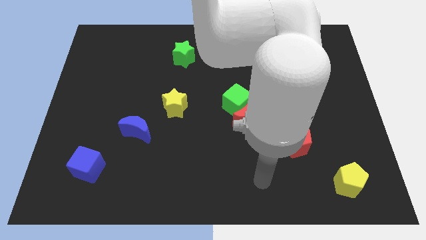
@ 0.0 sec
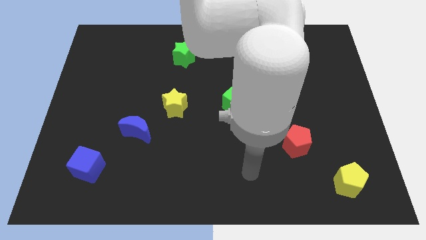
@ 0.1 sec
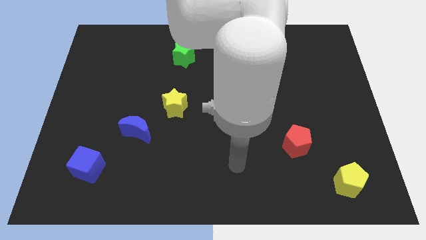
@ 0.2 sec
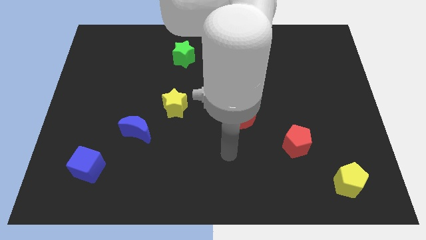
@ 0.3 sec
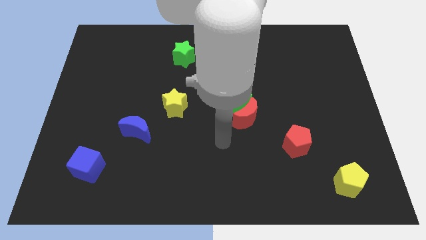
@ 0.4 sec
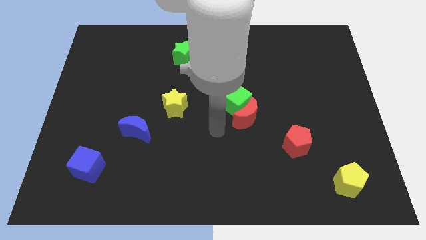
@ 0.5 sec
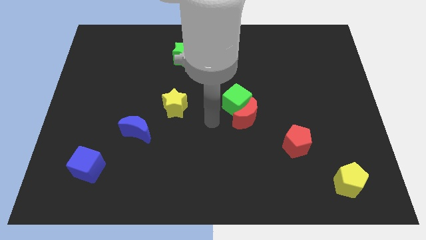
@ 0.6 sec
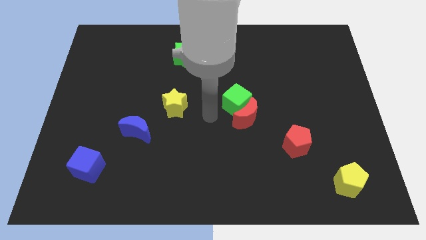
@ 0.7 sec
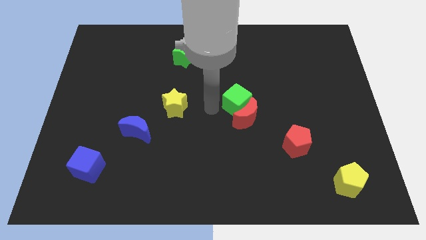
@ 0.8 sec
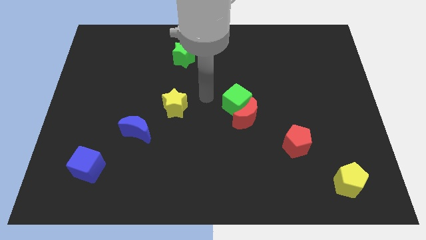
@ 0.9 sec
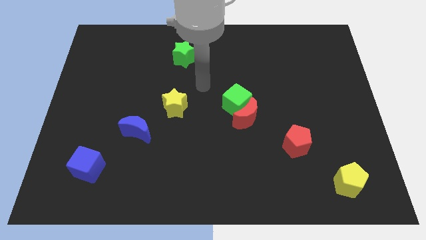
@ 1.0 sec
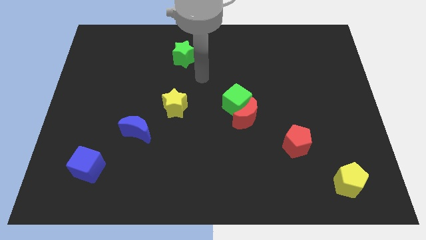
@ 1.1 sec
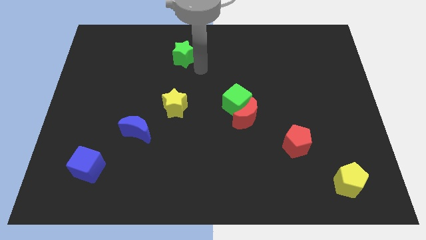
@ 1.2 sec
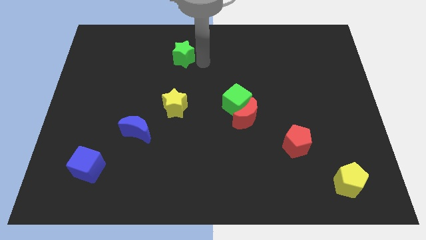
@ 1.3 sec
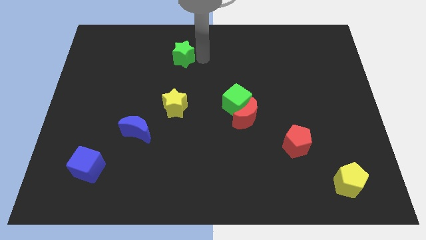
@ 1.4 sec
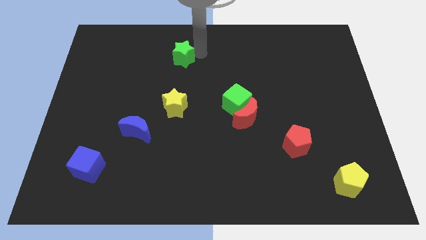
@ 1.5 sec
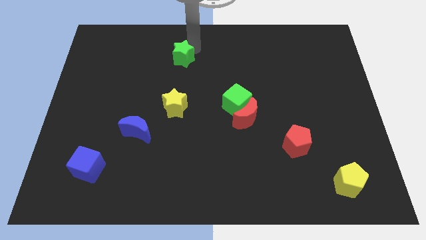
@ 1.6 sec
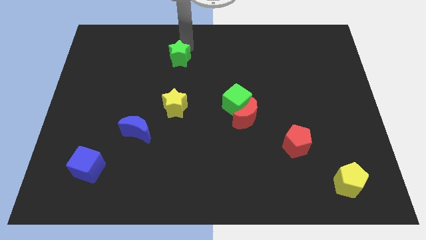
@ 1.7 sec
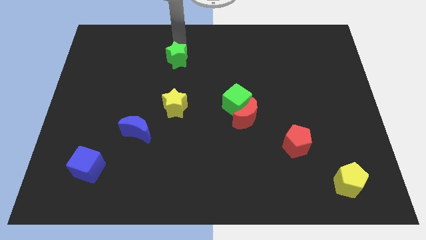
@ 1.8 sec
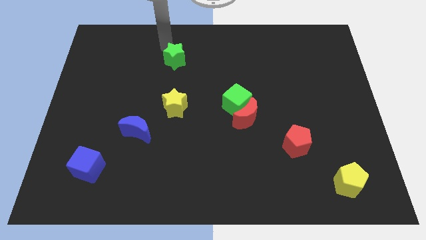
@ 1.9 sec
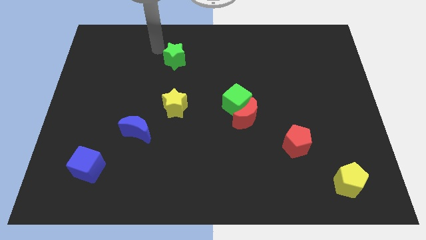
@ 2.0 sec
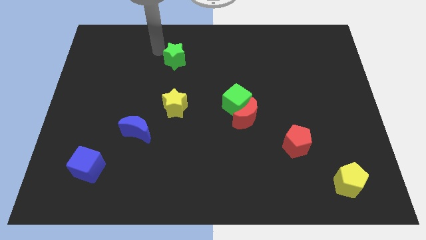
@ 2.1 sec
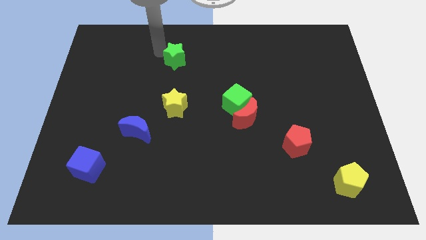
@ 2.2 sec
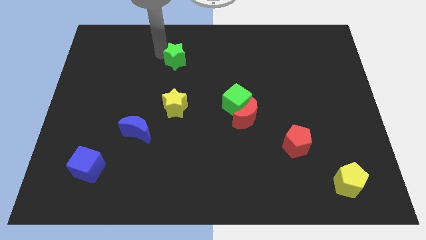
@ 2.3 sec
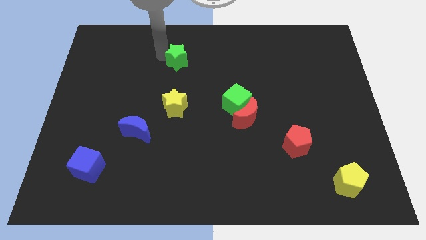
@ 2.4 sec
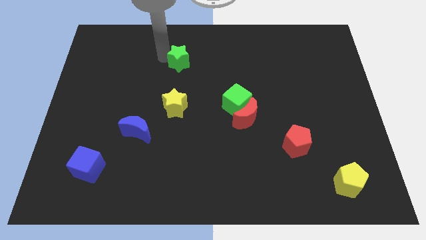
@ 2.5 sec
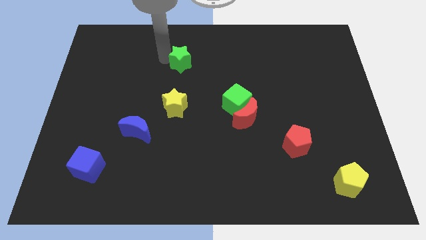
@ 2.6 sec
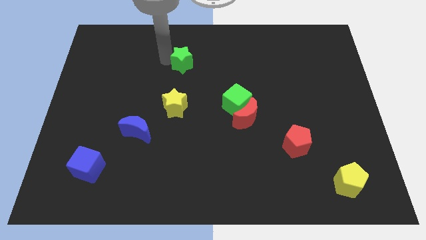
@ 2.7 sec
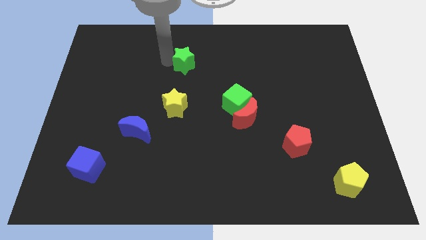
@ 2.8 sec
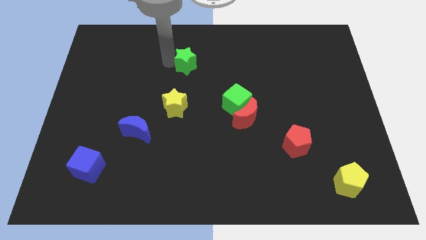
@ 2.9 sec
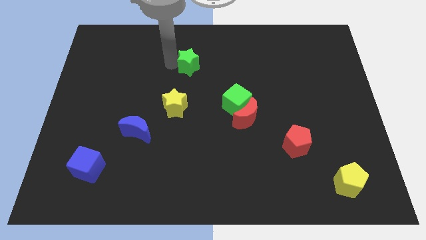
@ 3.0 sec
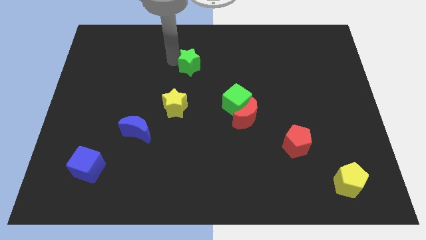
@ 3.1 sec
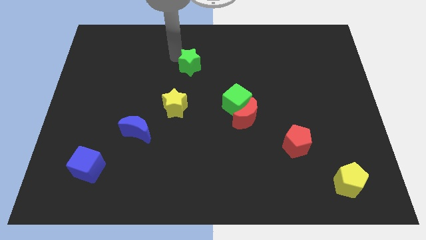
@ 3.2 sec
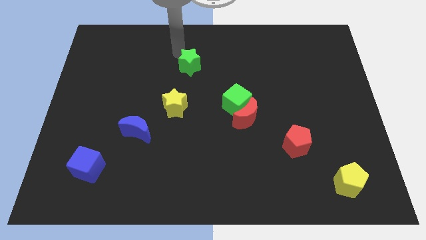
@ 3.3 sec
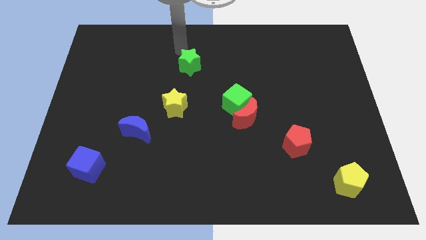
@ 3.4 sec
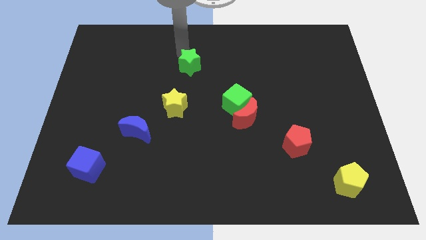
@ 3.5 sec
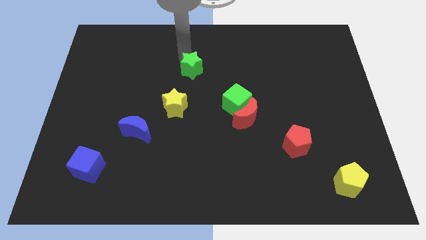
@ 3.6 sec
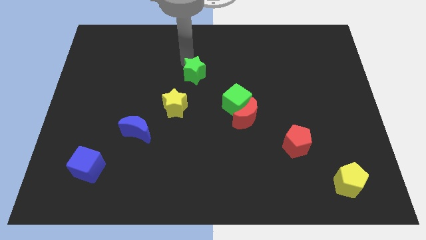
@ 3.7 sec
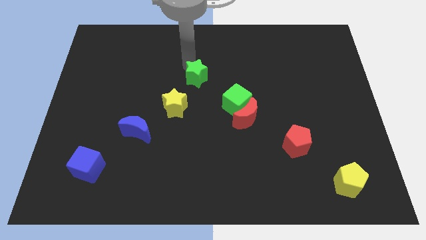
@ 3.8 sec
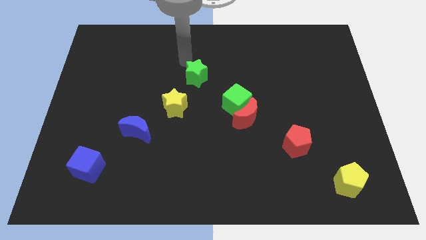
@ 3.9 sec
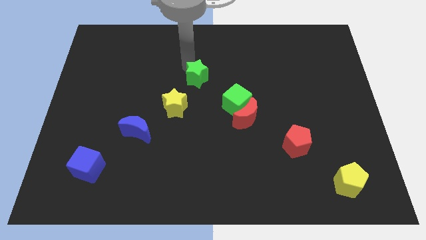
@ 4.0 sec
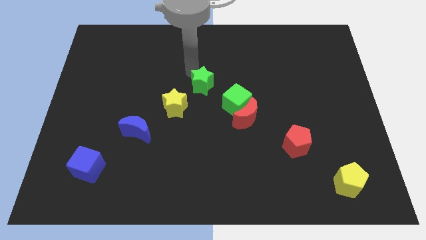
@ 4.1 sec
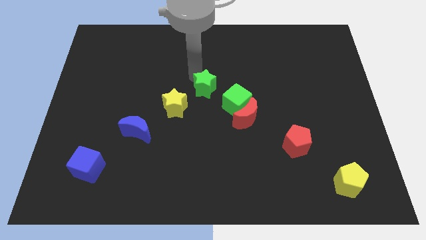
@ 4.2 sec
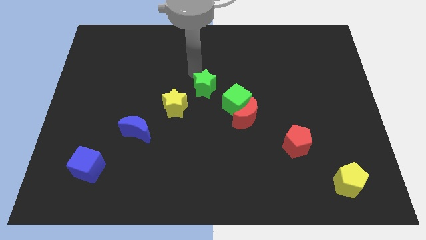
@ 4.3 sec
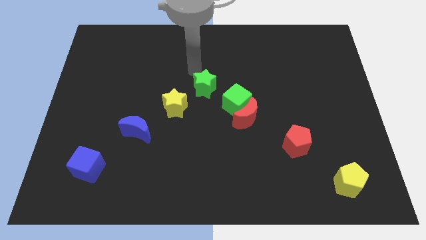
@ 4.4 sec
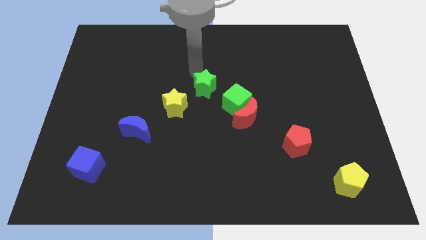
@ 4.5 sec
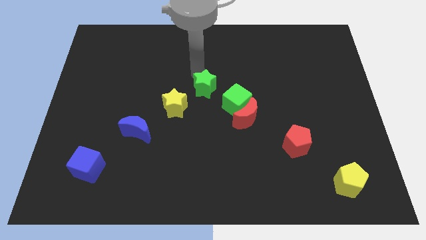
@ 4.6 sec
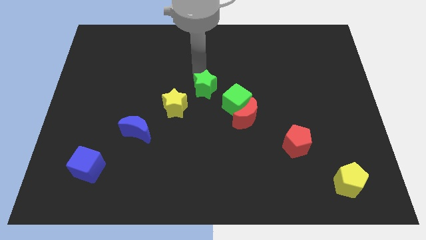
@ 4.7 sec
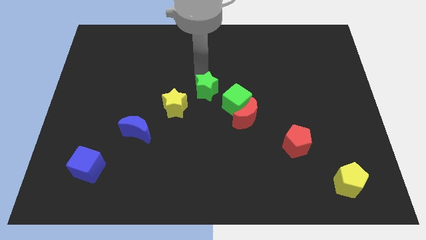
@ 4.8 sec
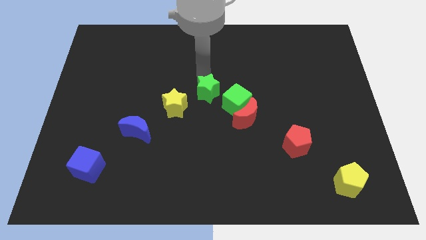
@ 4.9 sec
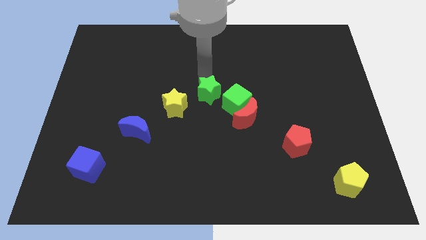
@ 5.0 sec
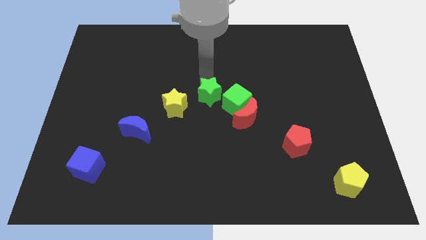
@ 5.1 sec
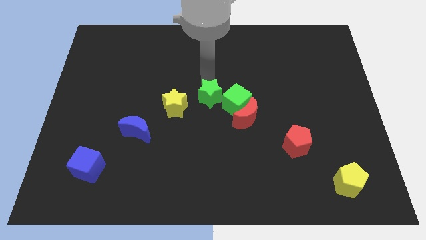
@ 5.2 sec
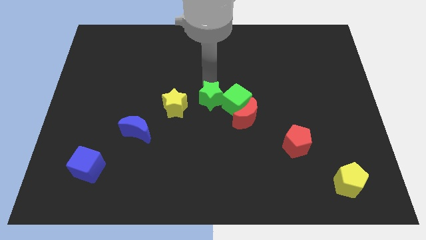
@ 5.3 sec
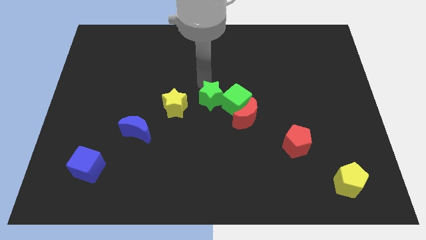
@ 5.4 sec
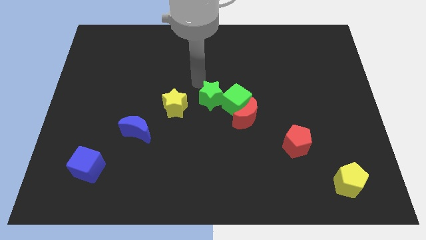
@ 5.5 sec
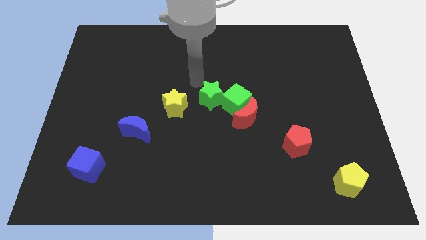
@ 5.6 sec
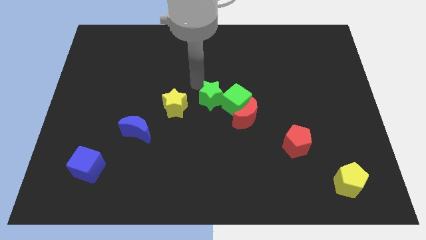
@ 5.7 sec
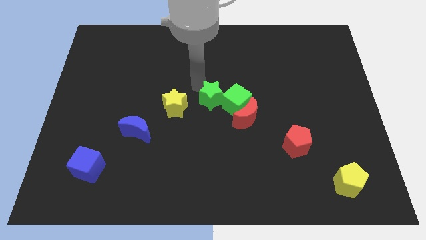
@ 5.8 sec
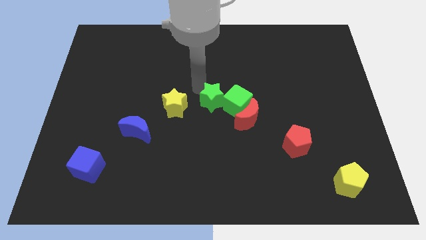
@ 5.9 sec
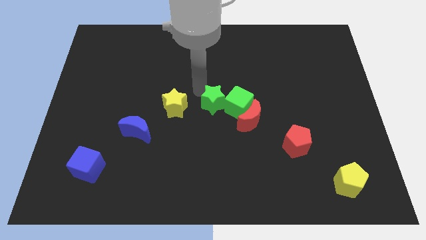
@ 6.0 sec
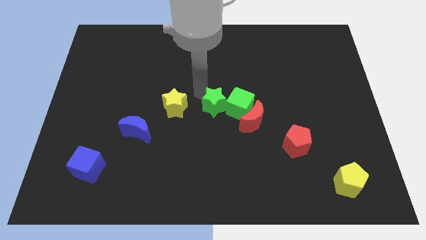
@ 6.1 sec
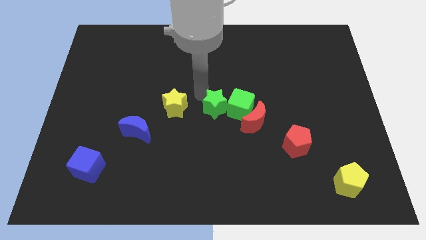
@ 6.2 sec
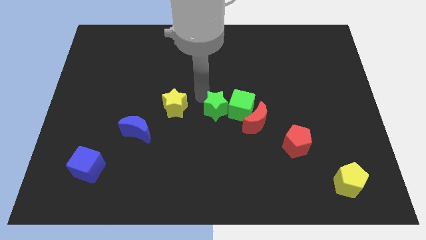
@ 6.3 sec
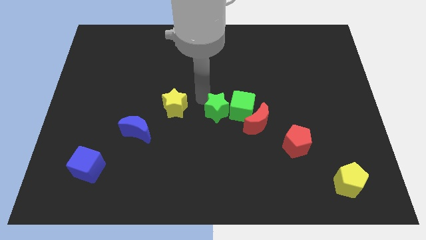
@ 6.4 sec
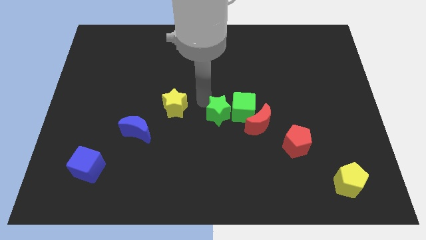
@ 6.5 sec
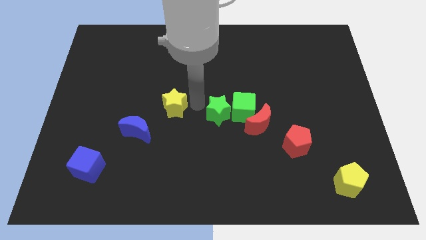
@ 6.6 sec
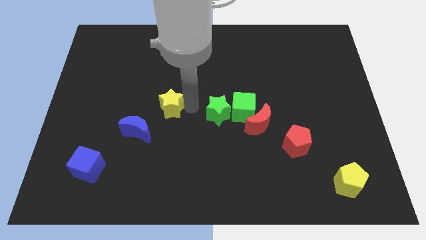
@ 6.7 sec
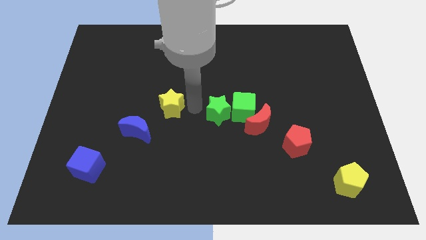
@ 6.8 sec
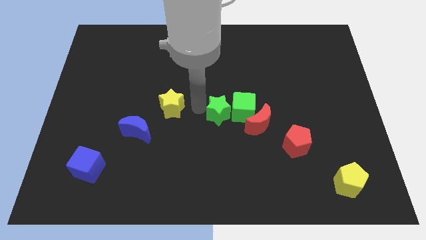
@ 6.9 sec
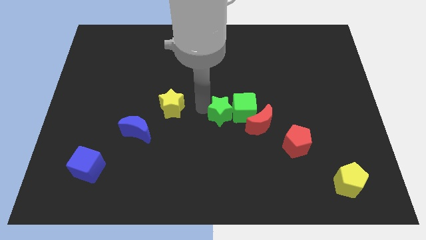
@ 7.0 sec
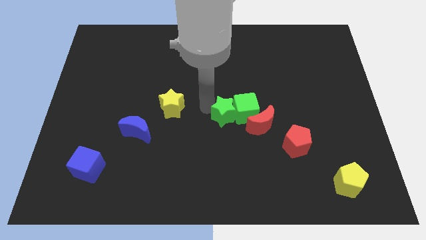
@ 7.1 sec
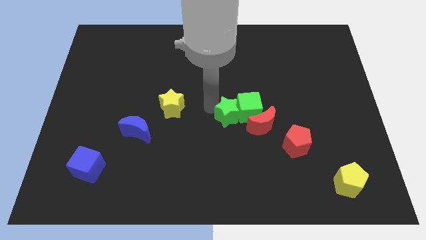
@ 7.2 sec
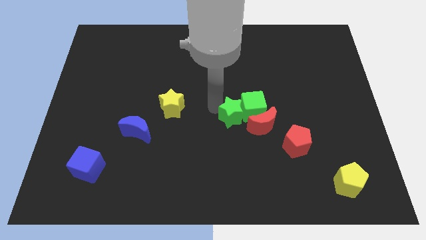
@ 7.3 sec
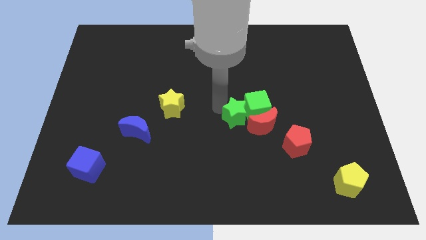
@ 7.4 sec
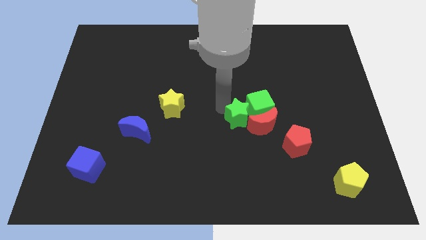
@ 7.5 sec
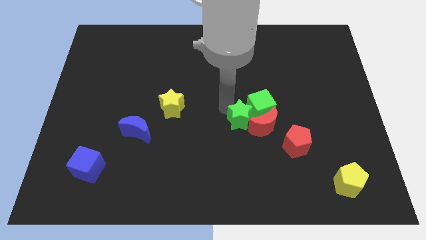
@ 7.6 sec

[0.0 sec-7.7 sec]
move the green star towards the red moon

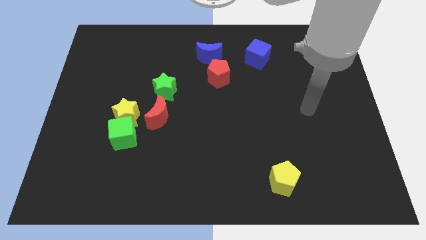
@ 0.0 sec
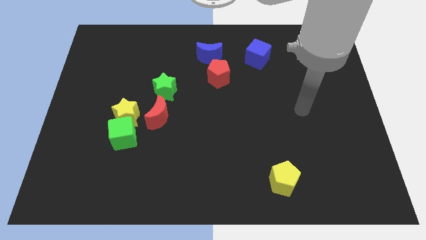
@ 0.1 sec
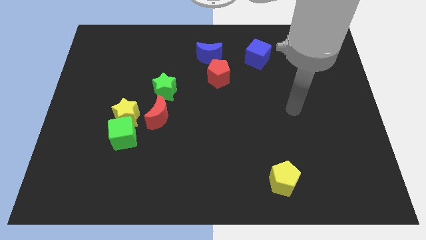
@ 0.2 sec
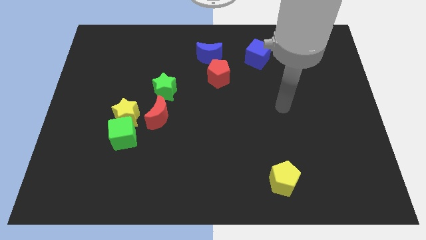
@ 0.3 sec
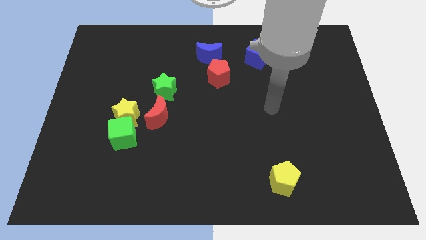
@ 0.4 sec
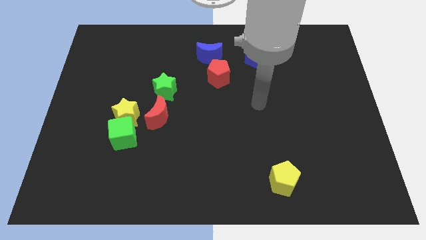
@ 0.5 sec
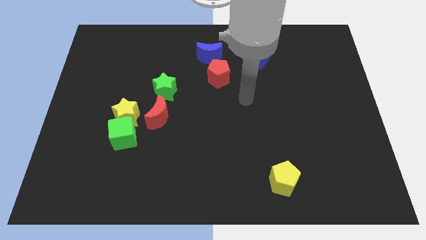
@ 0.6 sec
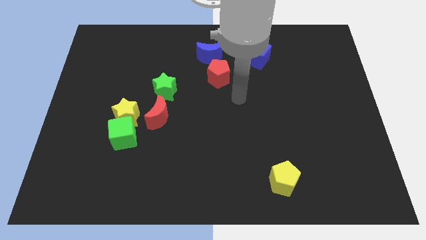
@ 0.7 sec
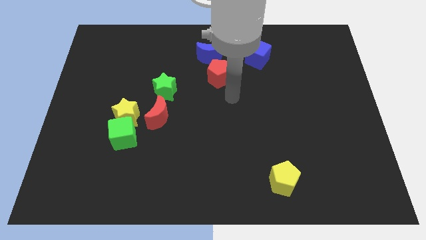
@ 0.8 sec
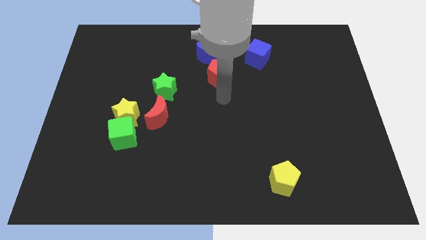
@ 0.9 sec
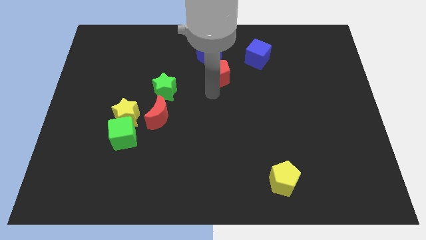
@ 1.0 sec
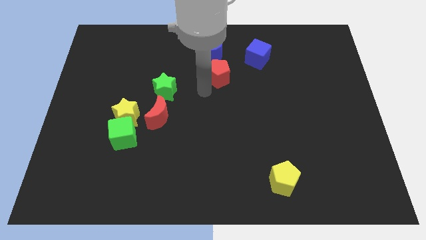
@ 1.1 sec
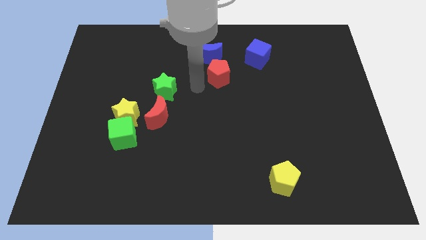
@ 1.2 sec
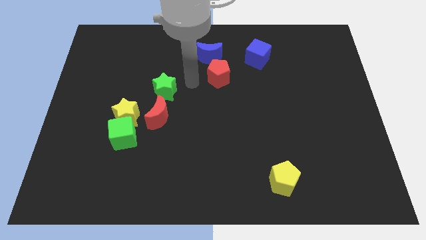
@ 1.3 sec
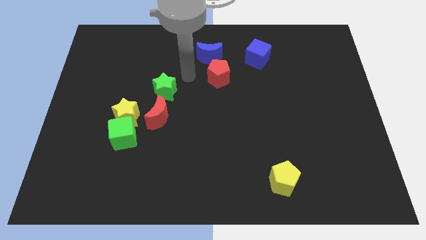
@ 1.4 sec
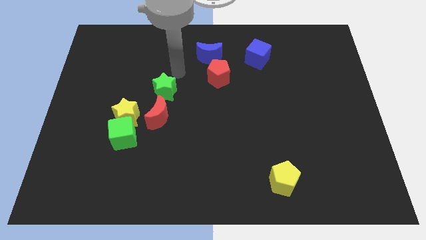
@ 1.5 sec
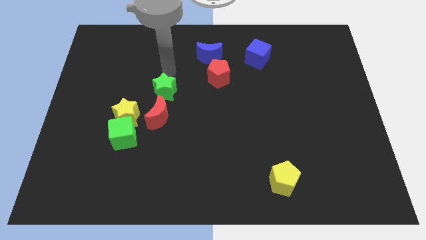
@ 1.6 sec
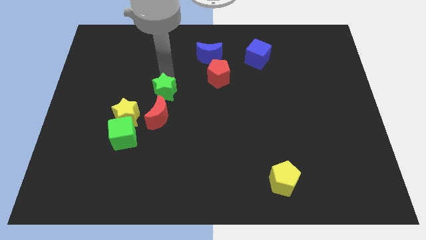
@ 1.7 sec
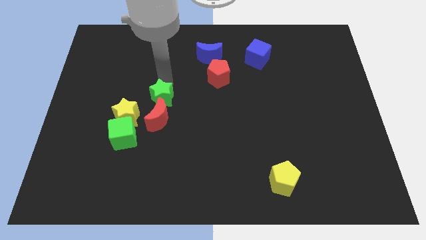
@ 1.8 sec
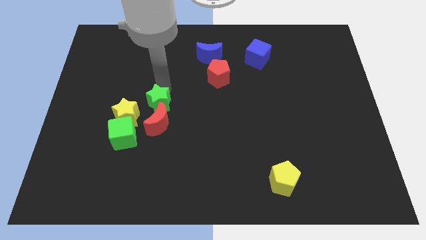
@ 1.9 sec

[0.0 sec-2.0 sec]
slide the green star close to the red moon
